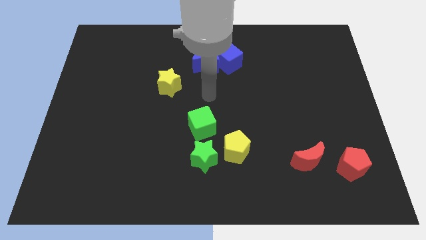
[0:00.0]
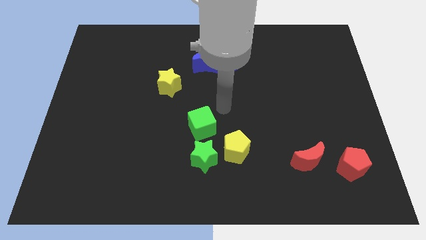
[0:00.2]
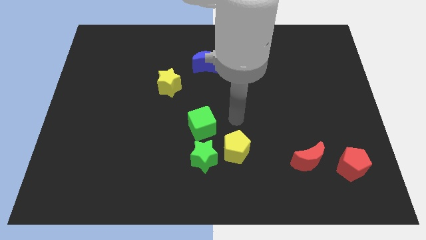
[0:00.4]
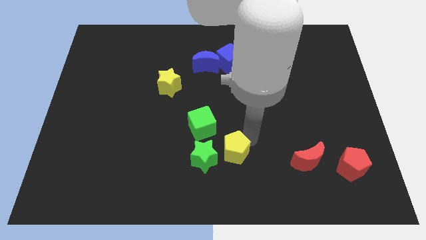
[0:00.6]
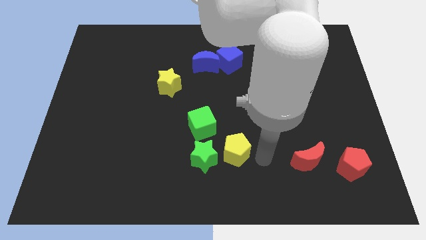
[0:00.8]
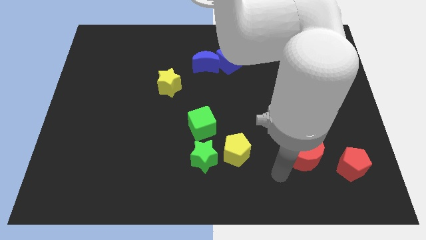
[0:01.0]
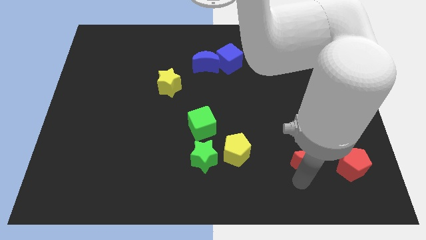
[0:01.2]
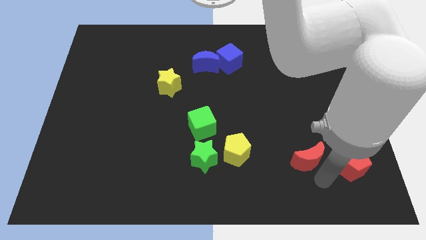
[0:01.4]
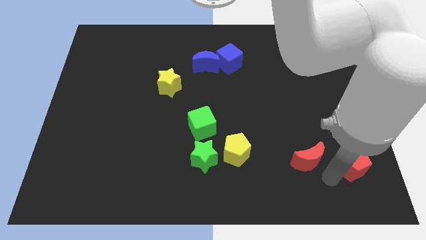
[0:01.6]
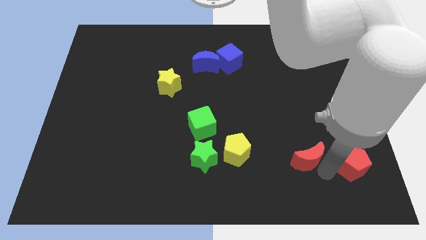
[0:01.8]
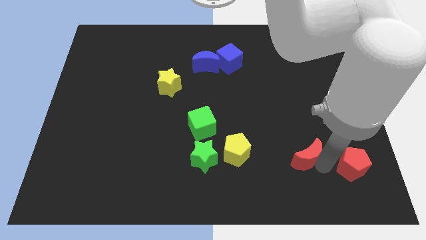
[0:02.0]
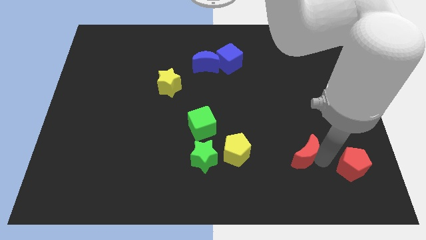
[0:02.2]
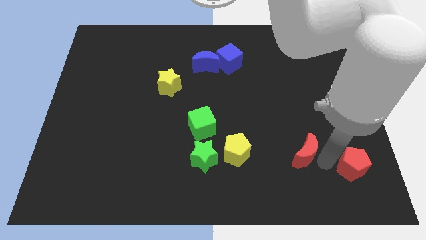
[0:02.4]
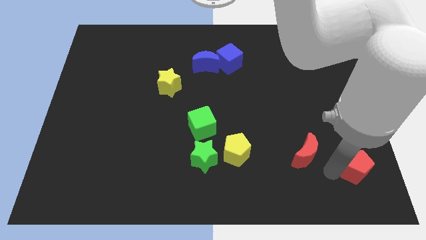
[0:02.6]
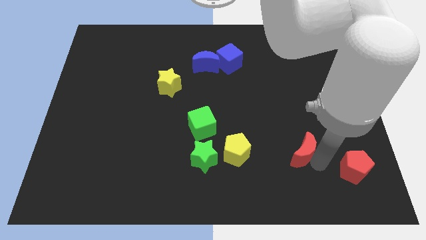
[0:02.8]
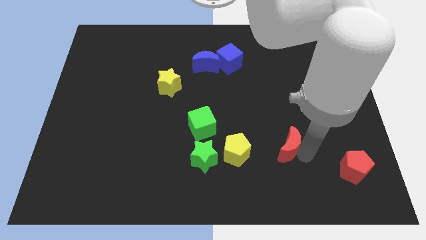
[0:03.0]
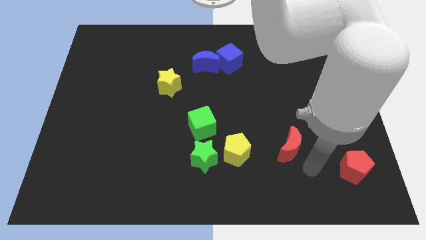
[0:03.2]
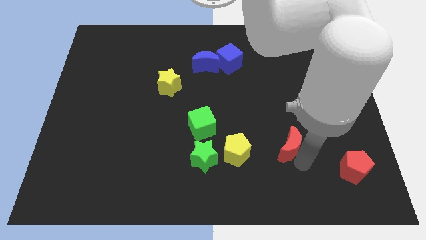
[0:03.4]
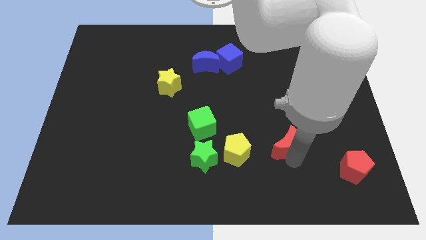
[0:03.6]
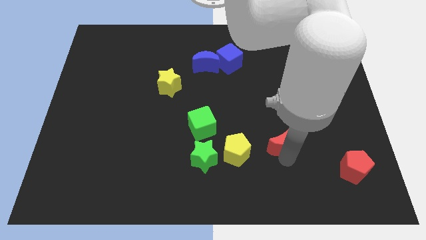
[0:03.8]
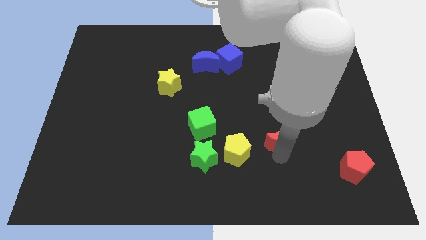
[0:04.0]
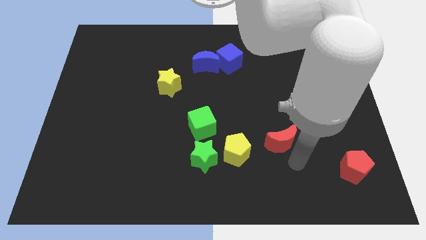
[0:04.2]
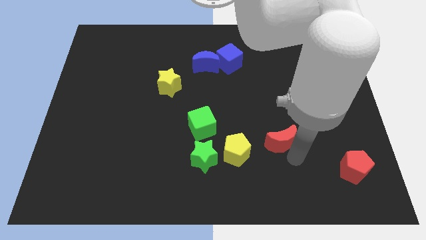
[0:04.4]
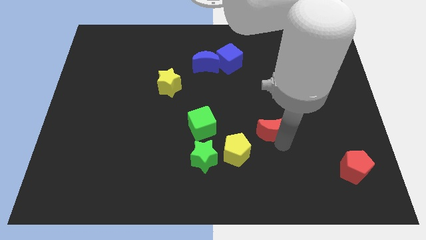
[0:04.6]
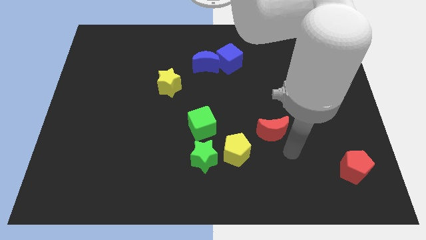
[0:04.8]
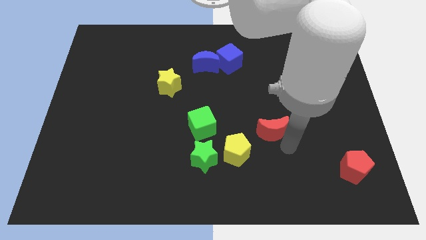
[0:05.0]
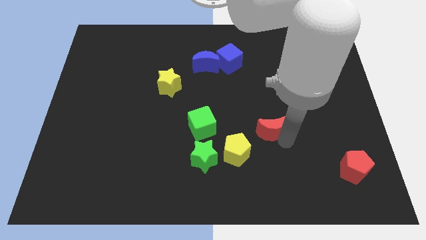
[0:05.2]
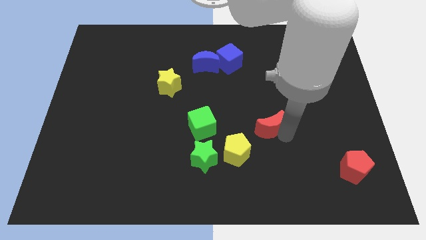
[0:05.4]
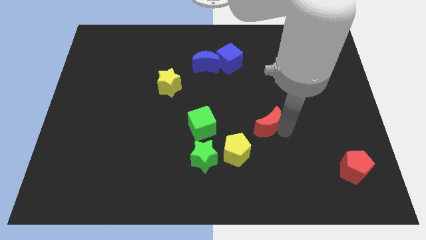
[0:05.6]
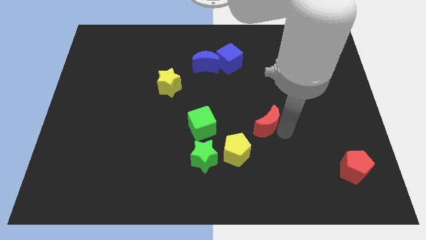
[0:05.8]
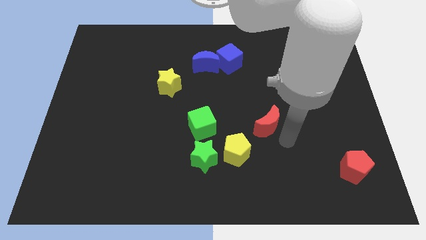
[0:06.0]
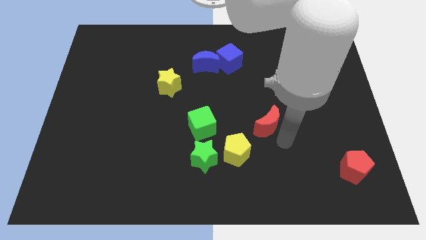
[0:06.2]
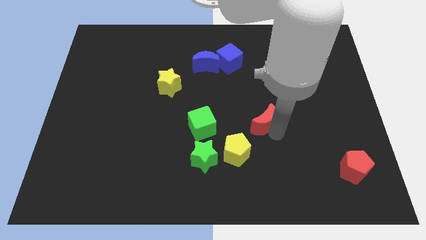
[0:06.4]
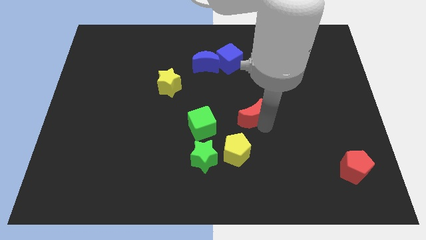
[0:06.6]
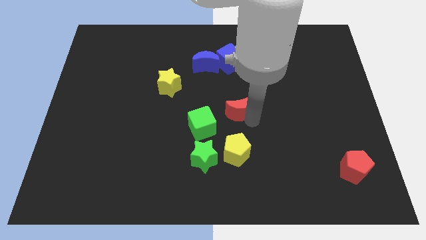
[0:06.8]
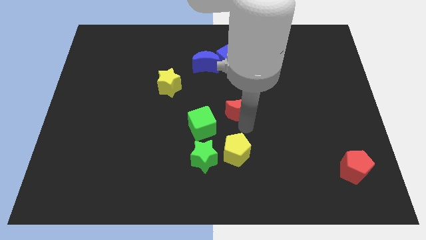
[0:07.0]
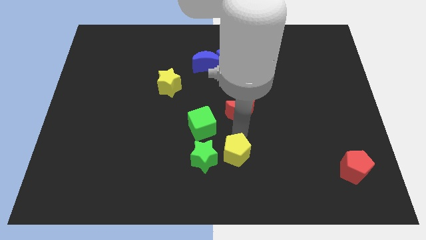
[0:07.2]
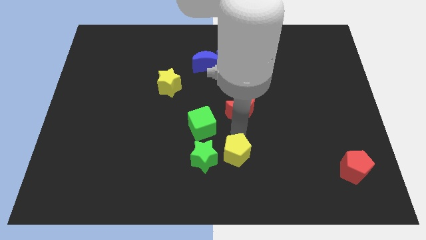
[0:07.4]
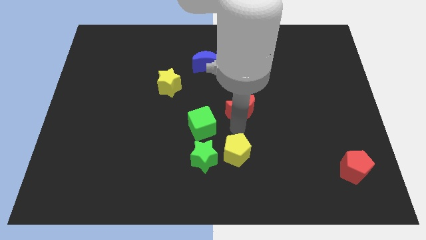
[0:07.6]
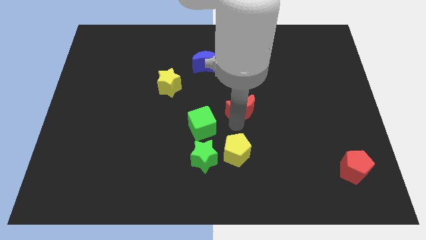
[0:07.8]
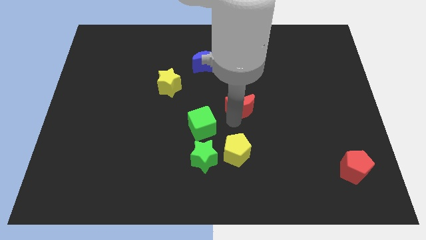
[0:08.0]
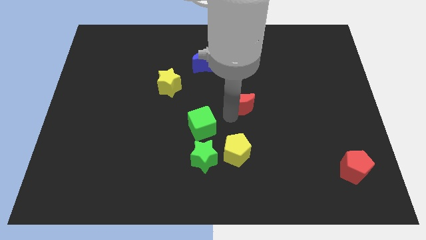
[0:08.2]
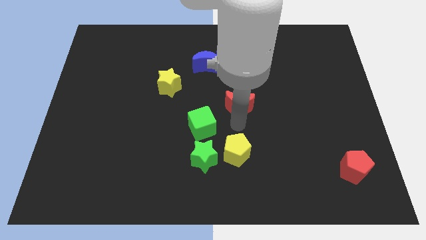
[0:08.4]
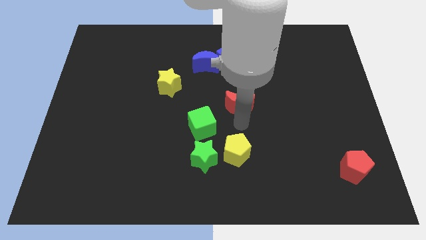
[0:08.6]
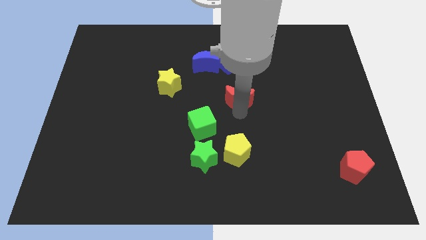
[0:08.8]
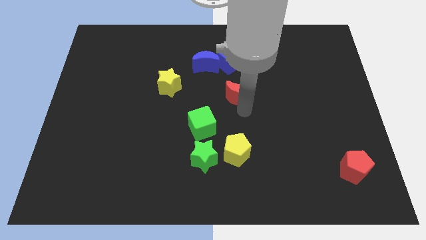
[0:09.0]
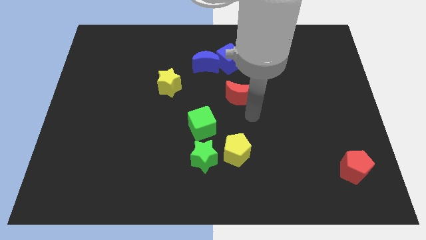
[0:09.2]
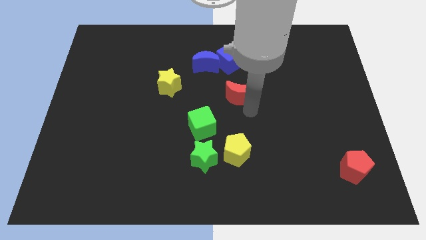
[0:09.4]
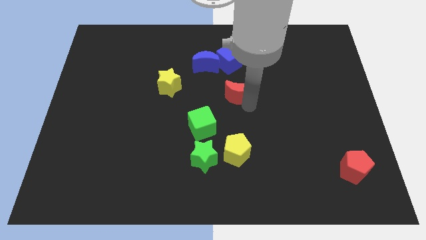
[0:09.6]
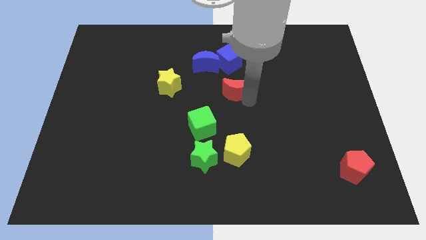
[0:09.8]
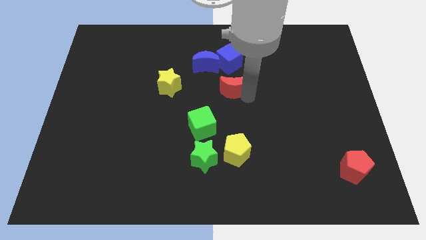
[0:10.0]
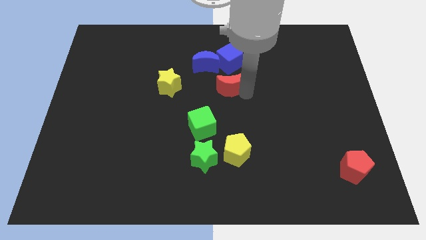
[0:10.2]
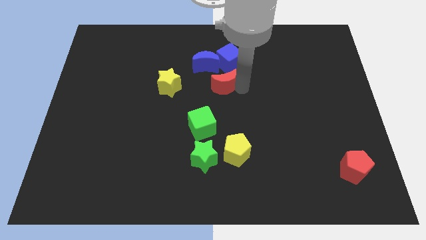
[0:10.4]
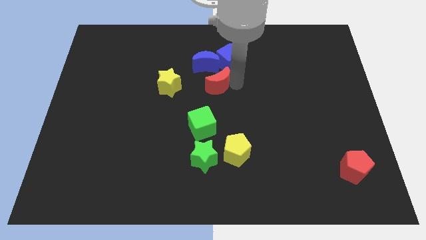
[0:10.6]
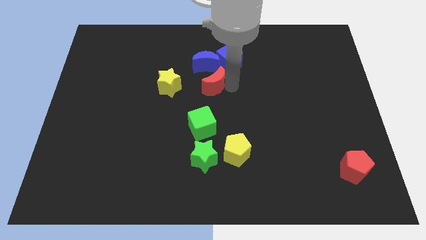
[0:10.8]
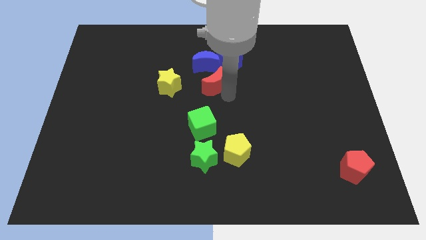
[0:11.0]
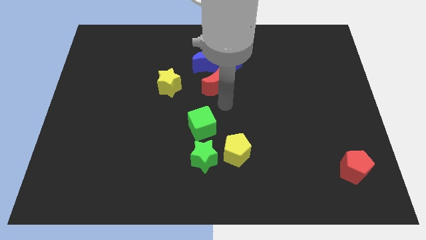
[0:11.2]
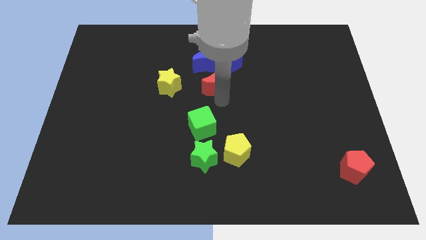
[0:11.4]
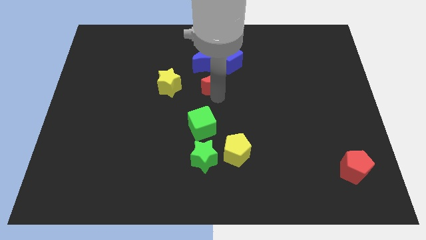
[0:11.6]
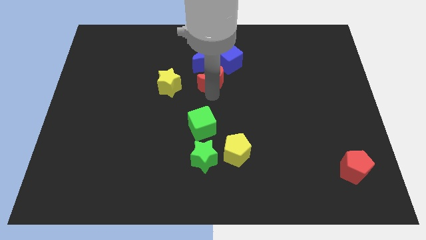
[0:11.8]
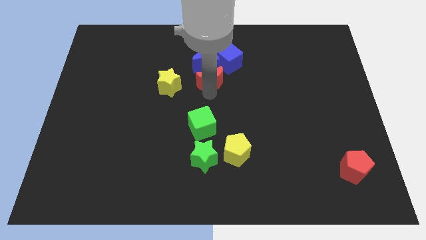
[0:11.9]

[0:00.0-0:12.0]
push the red moon to the blue moon

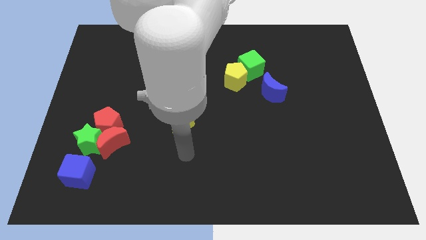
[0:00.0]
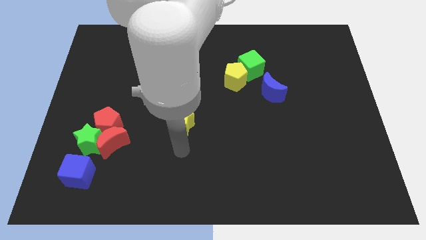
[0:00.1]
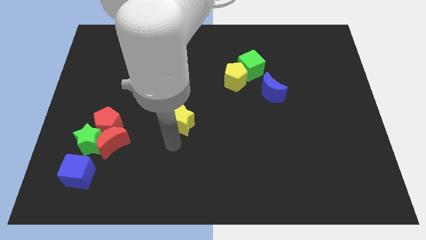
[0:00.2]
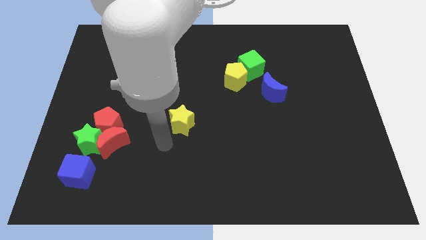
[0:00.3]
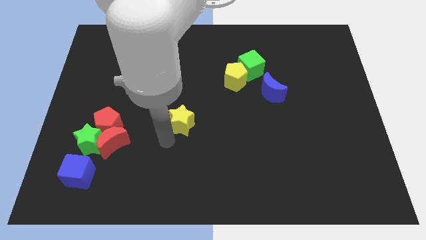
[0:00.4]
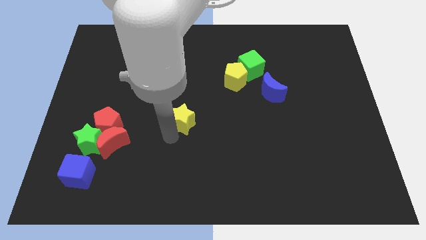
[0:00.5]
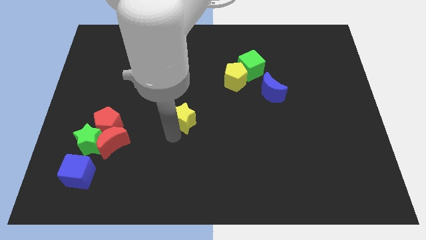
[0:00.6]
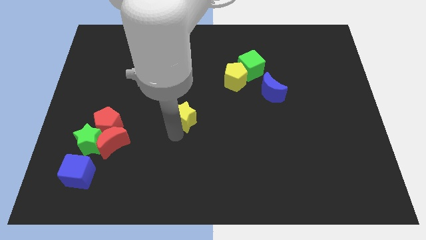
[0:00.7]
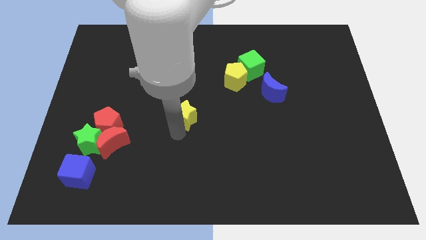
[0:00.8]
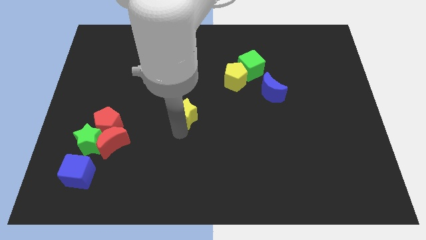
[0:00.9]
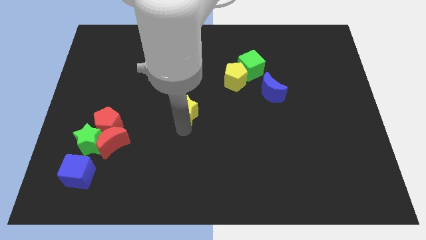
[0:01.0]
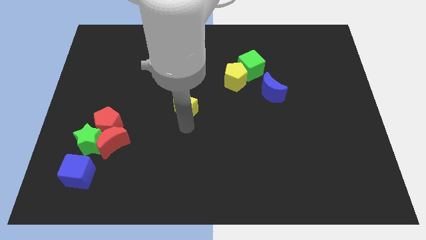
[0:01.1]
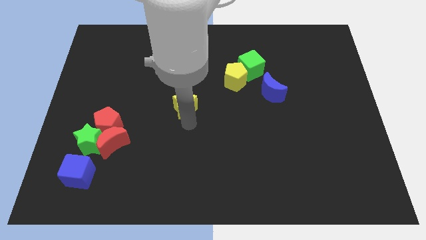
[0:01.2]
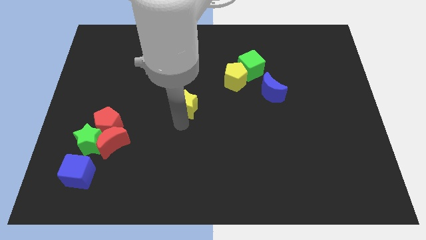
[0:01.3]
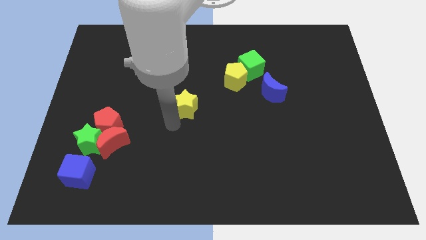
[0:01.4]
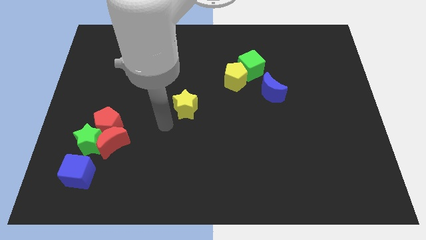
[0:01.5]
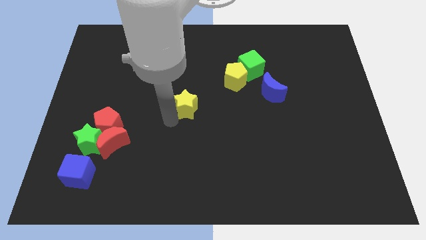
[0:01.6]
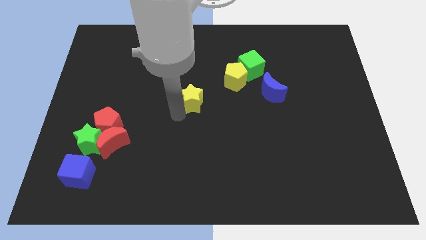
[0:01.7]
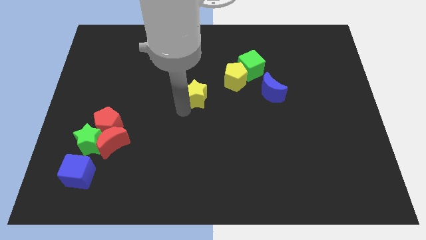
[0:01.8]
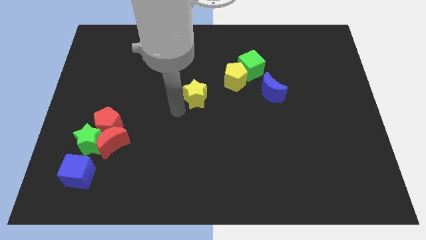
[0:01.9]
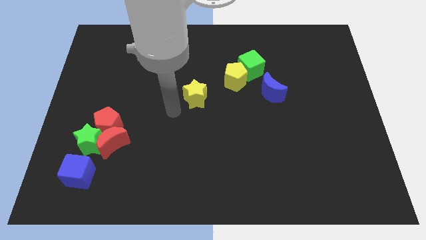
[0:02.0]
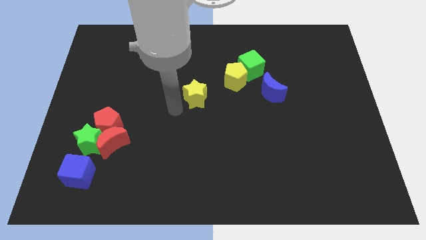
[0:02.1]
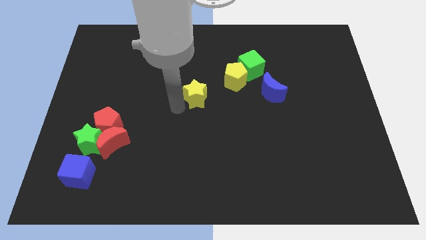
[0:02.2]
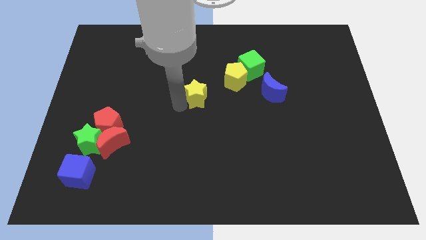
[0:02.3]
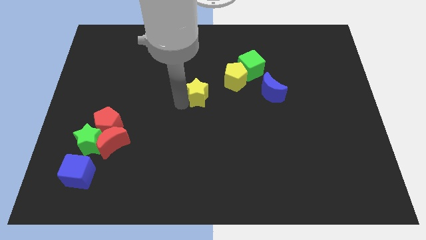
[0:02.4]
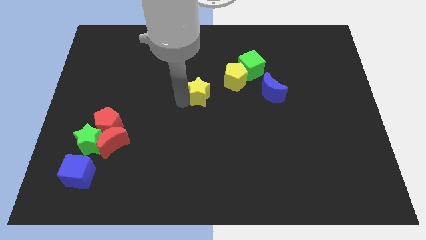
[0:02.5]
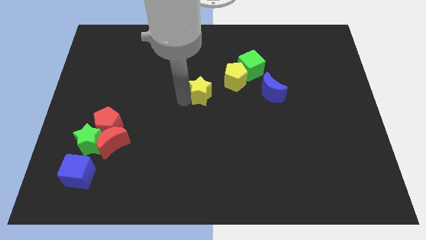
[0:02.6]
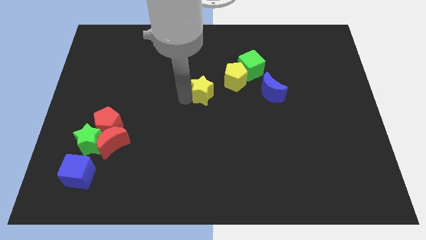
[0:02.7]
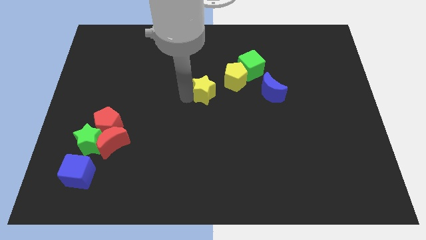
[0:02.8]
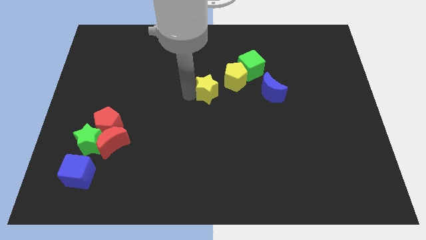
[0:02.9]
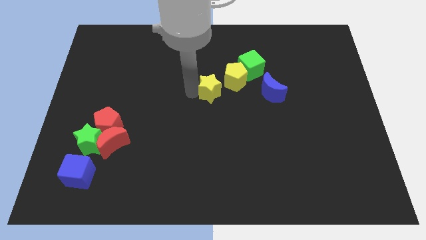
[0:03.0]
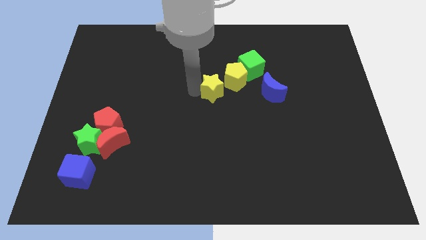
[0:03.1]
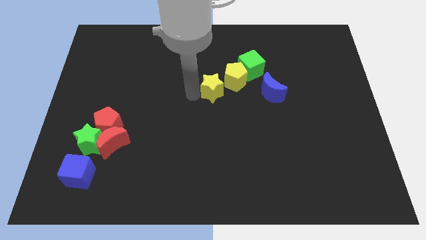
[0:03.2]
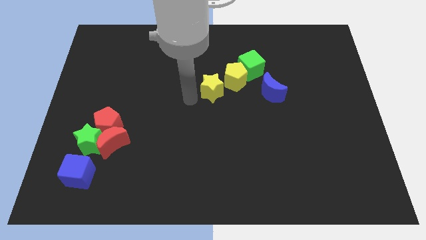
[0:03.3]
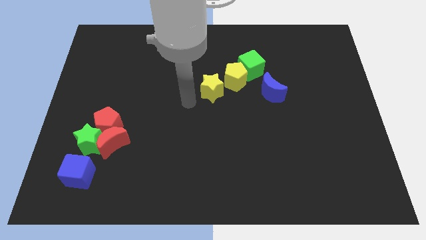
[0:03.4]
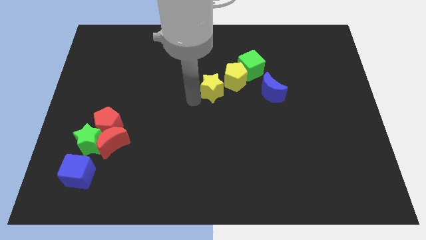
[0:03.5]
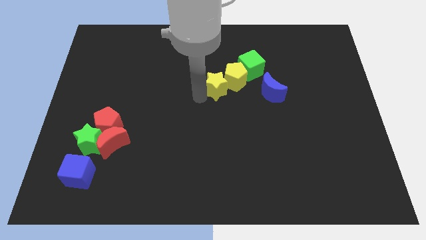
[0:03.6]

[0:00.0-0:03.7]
move the yellow star towards the yellow pentagon
